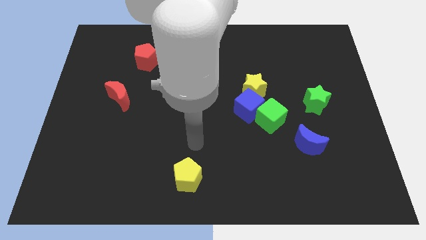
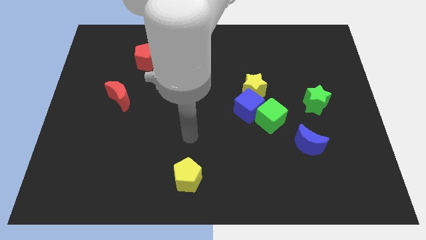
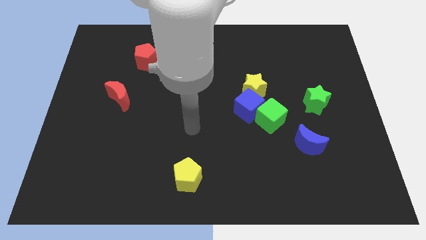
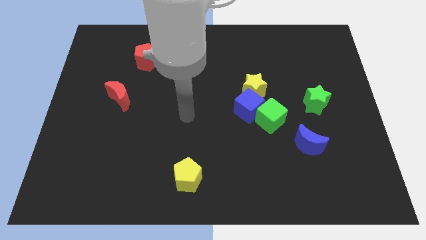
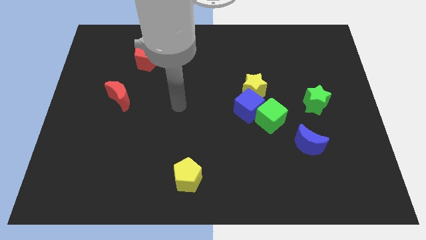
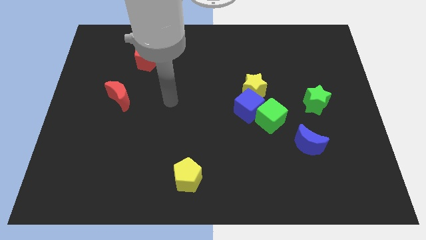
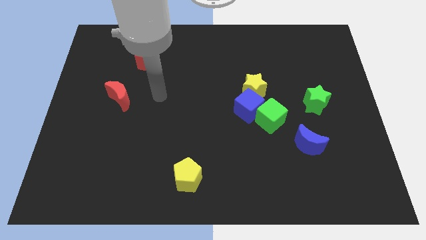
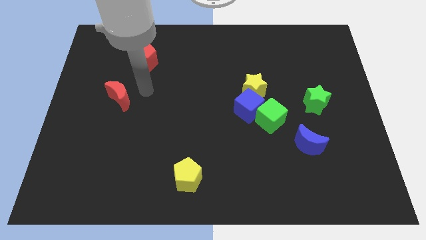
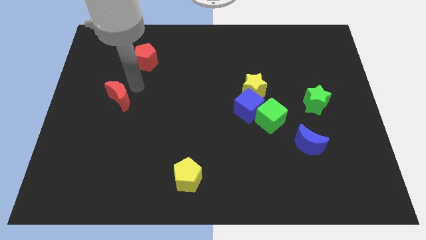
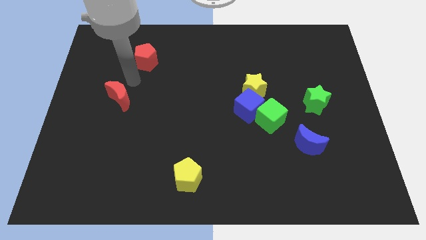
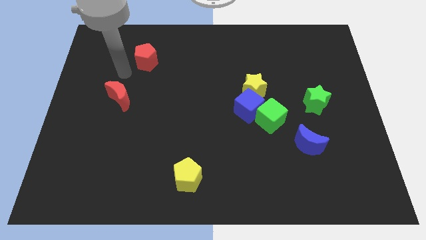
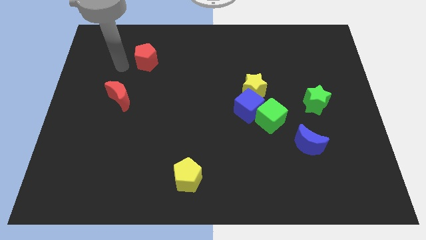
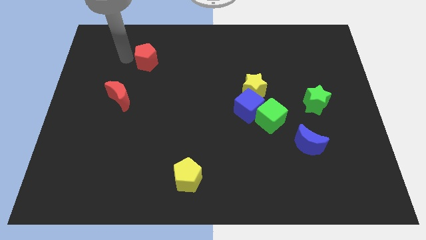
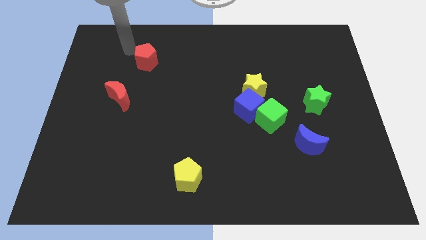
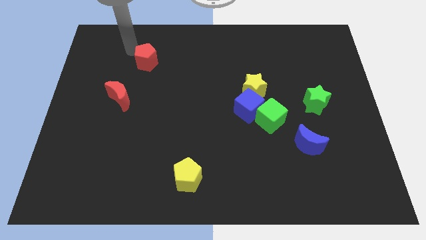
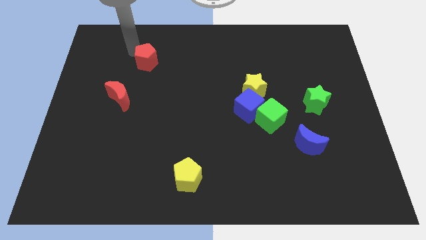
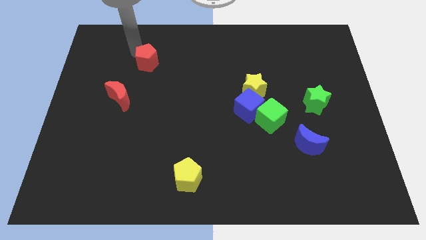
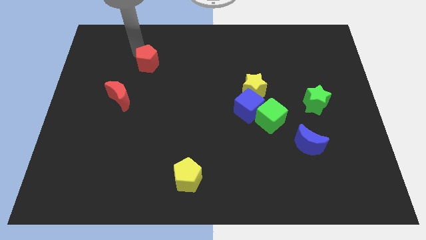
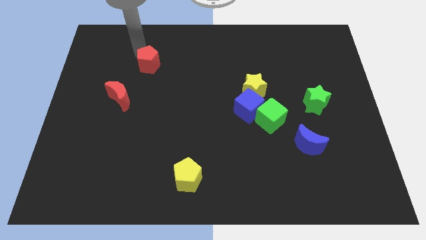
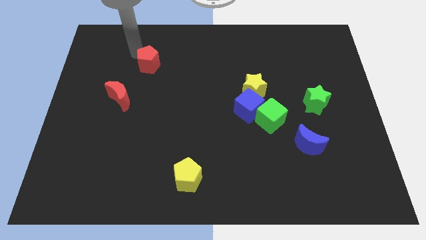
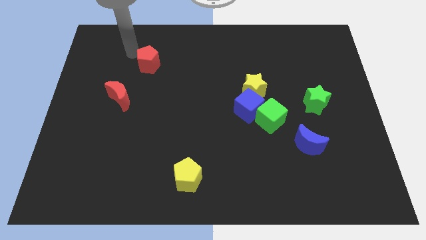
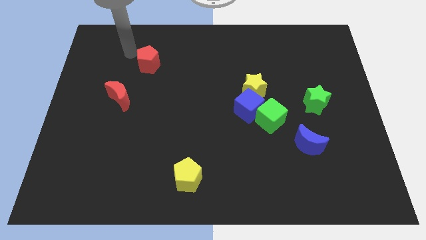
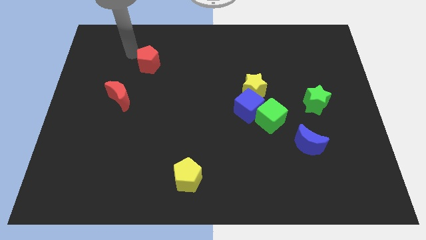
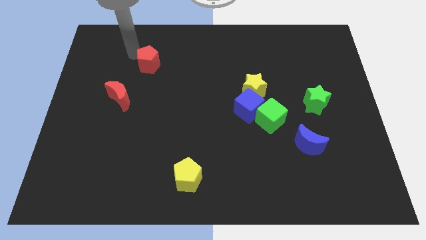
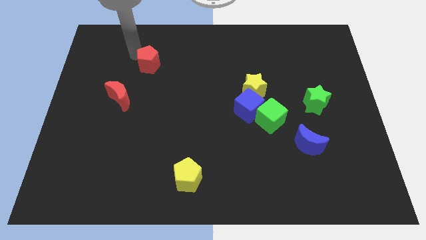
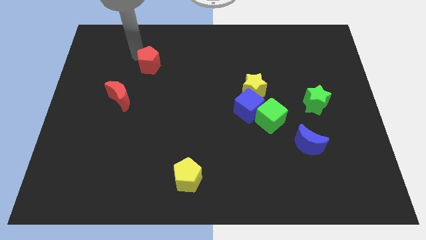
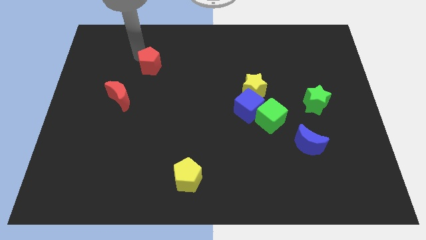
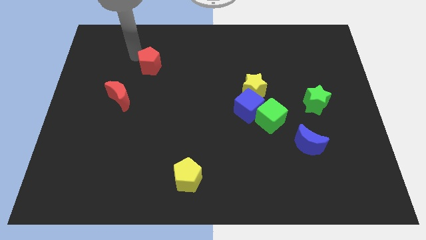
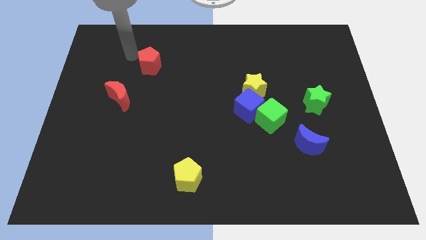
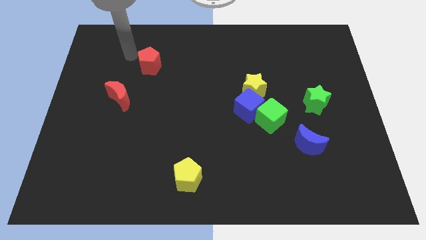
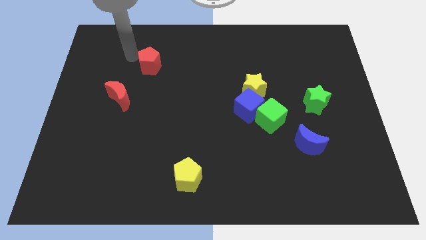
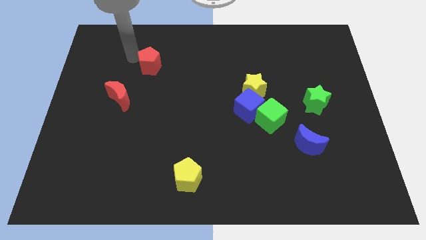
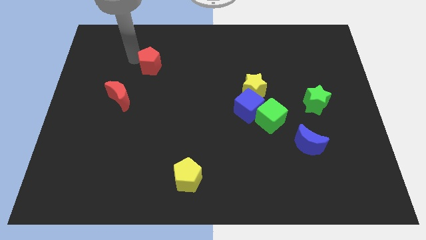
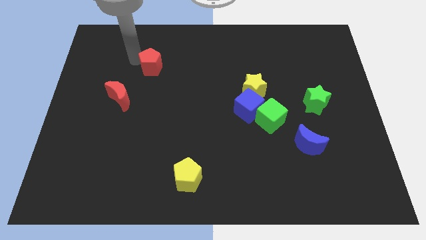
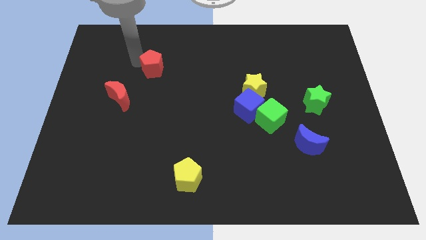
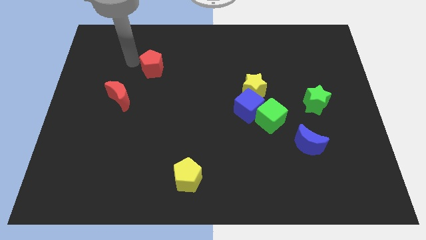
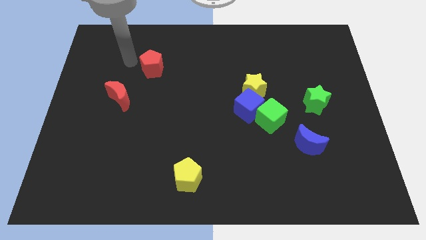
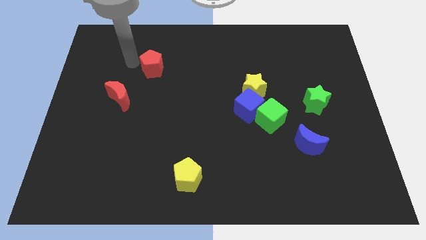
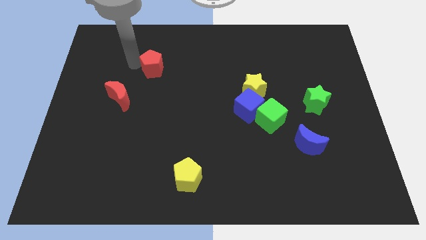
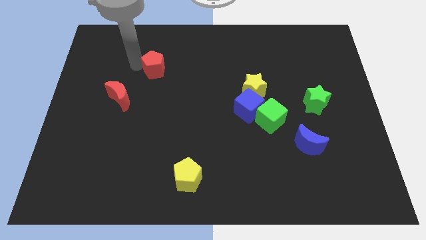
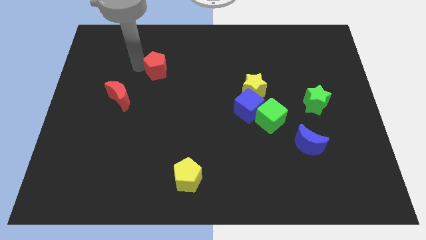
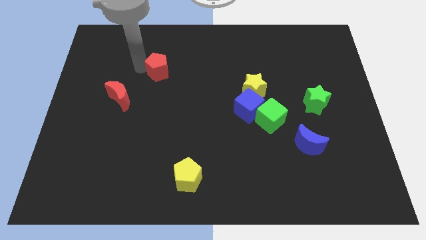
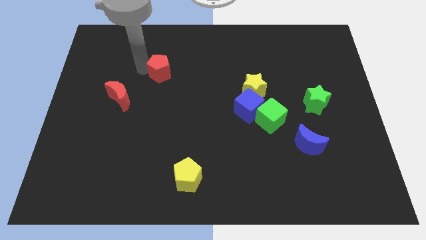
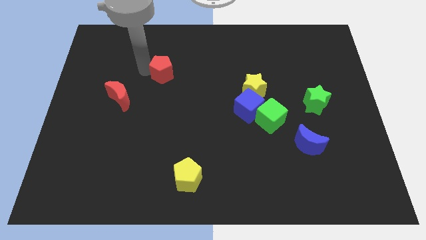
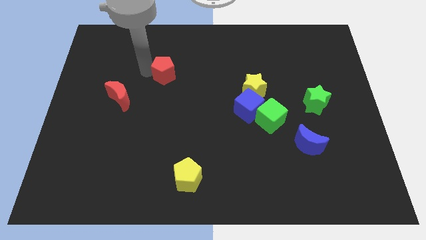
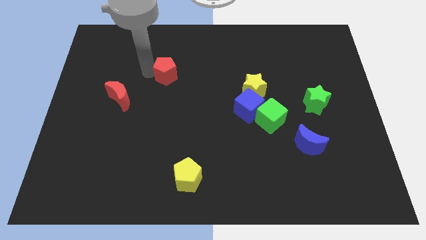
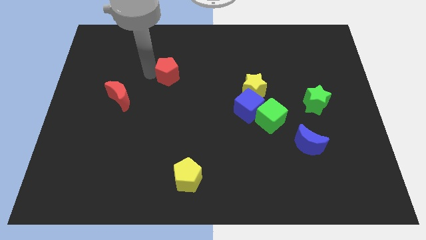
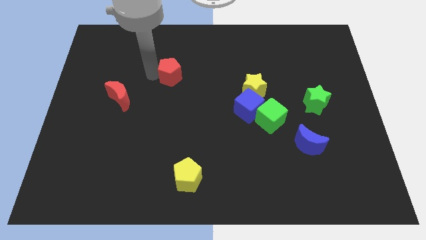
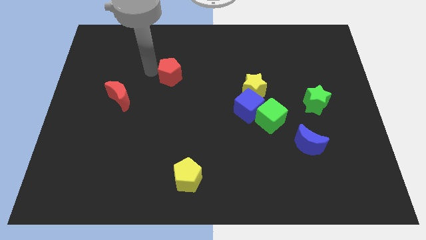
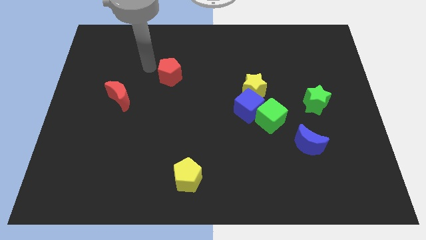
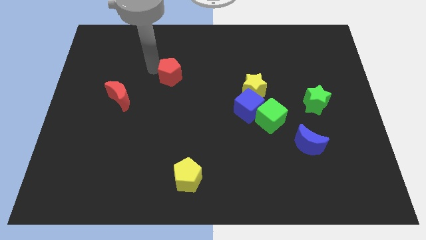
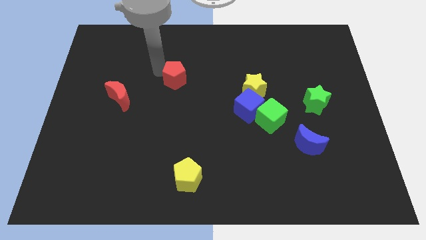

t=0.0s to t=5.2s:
put the red pentagon to the center

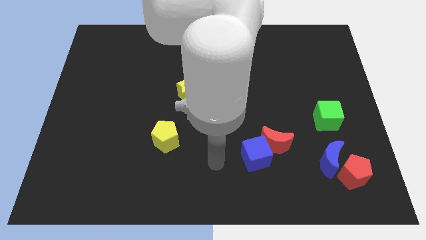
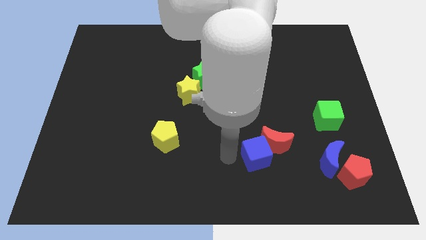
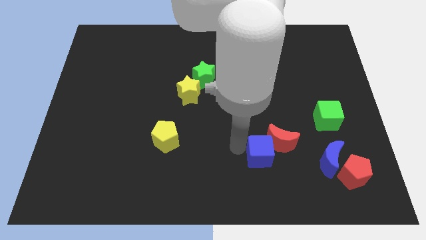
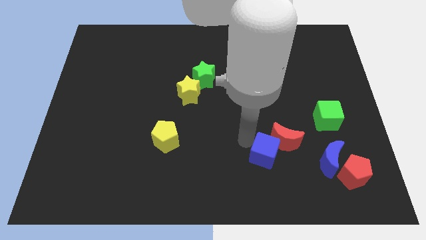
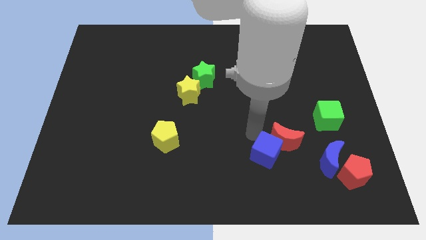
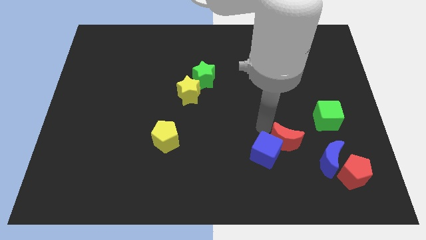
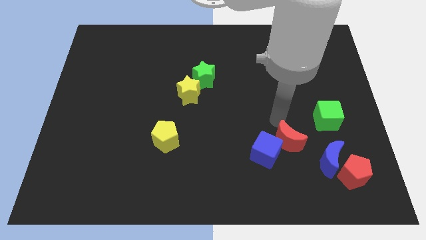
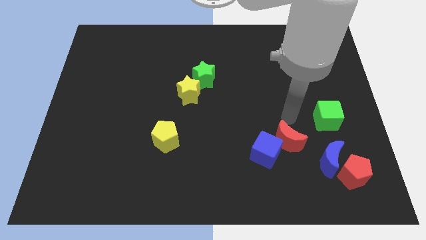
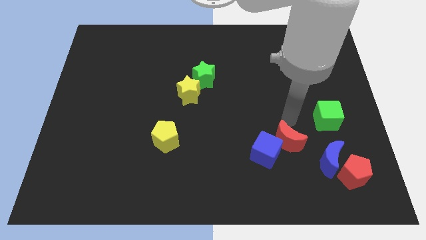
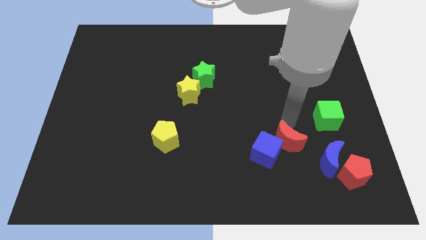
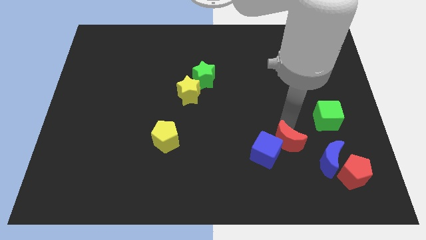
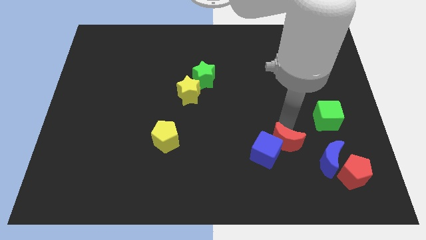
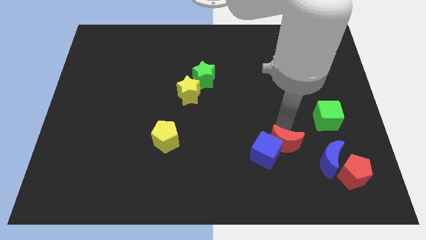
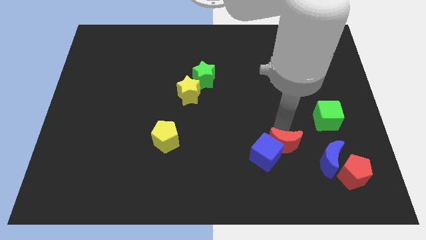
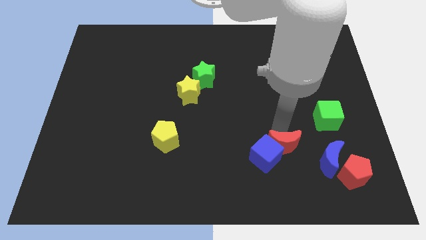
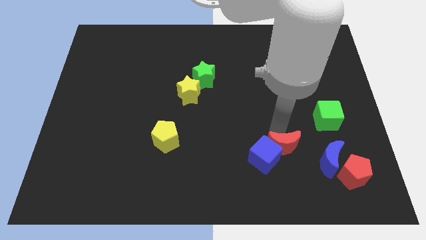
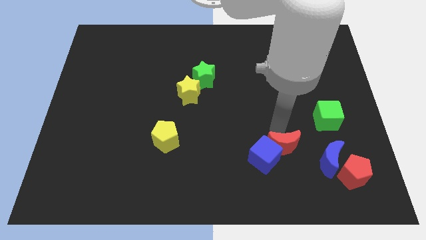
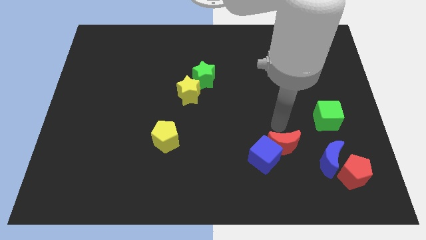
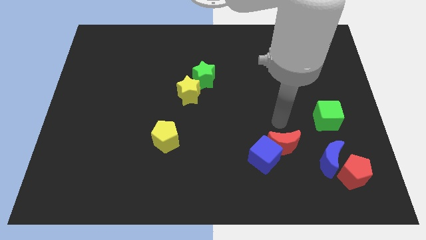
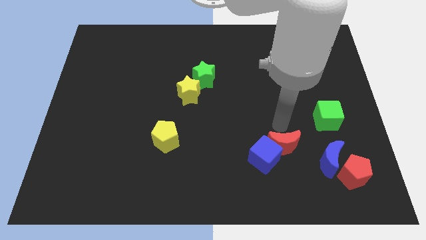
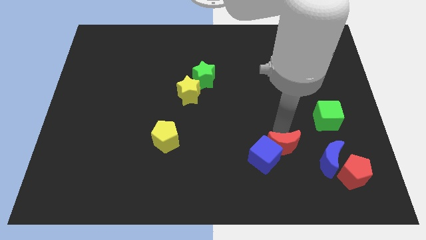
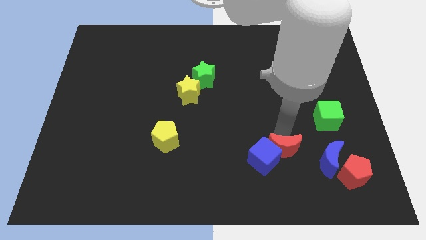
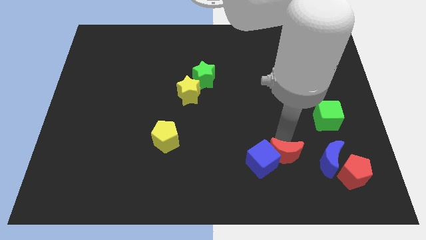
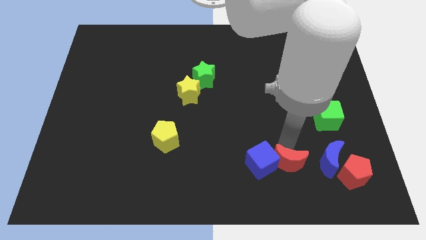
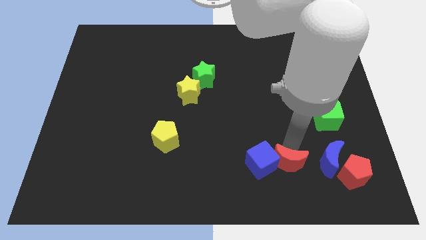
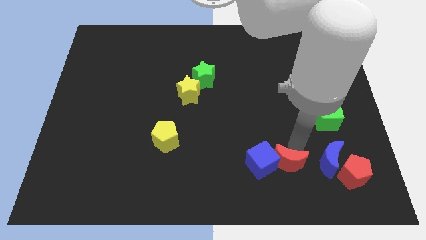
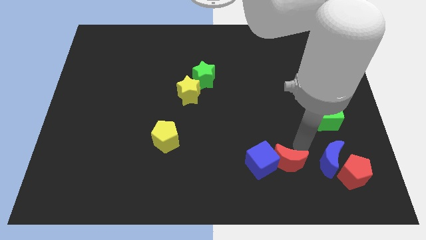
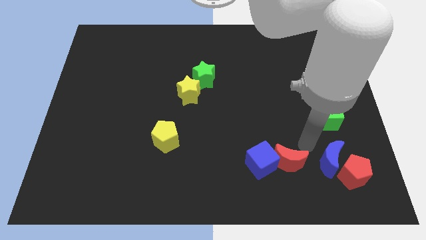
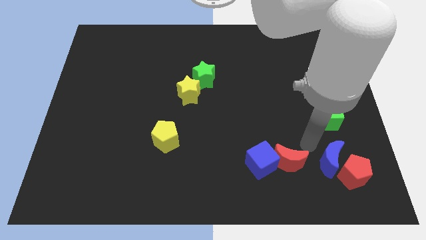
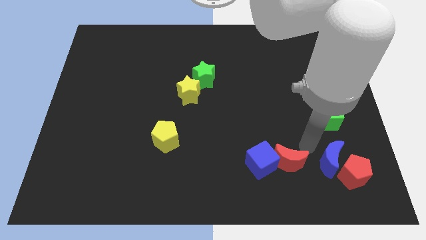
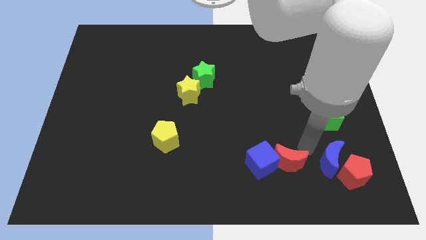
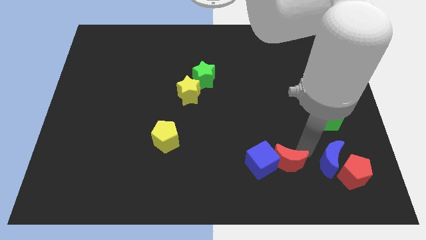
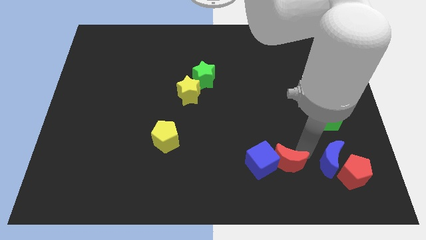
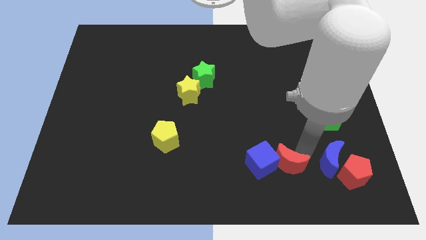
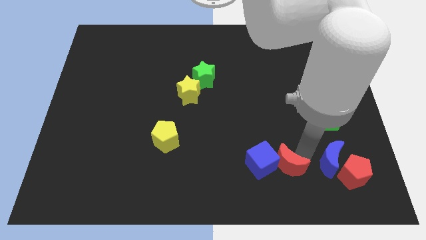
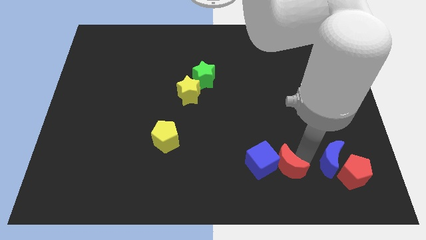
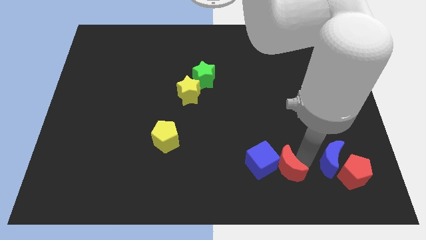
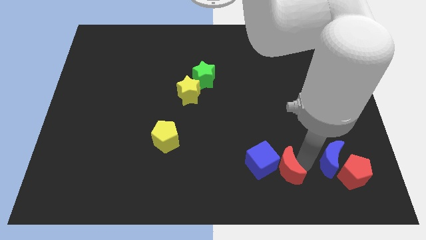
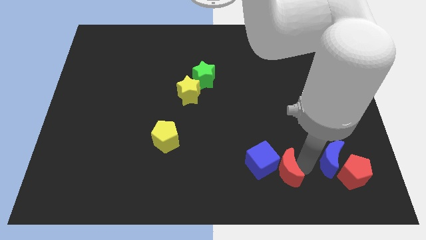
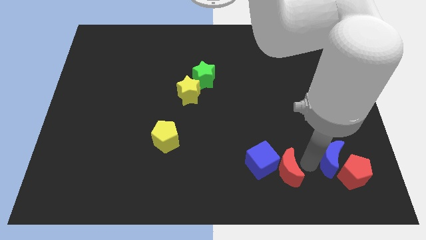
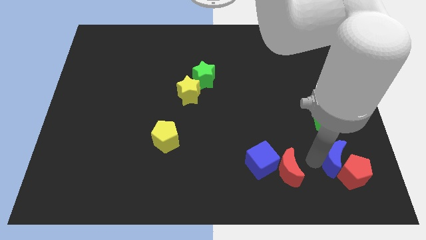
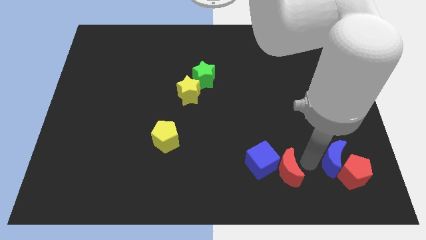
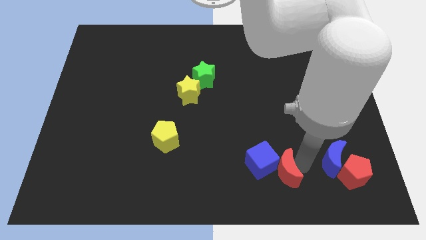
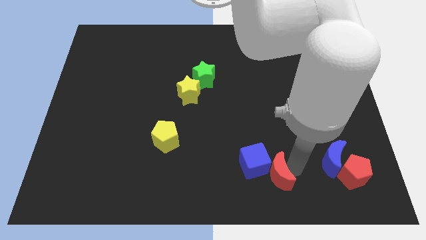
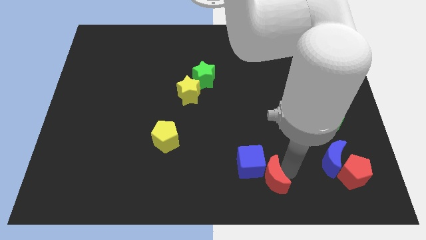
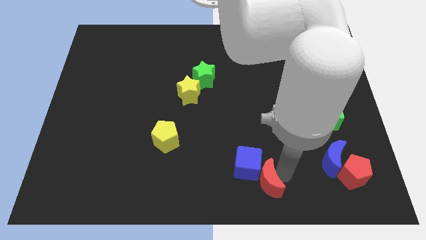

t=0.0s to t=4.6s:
push the red moon to the bottom
